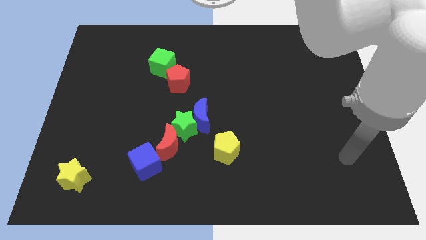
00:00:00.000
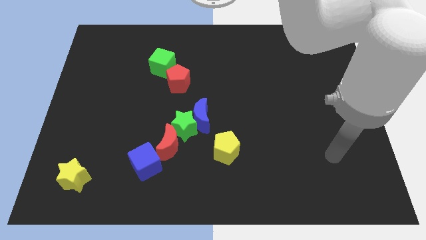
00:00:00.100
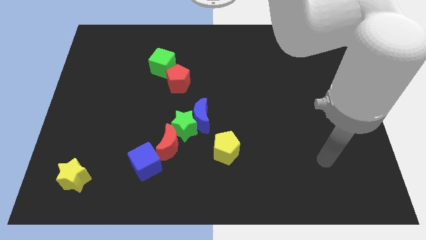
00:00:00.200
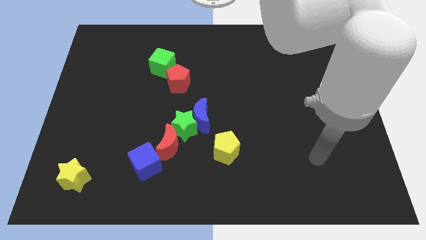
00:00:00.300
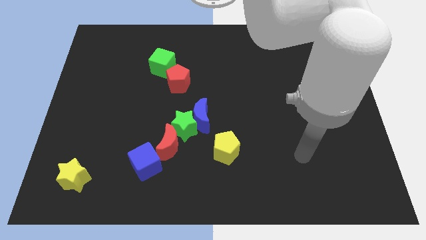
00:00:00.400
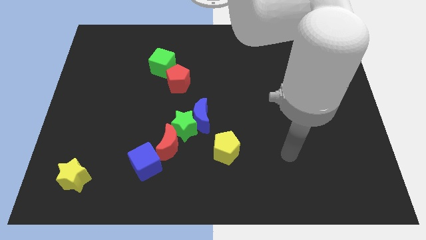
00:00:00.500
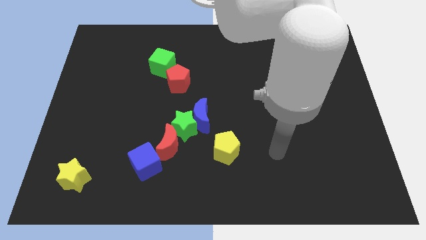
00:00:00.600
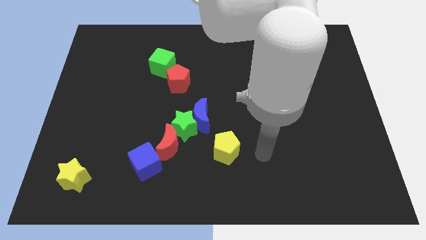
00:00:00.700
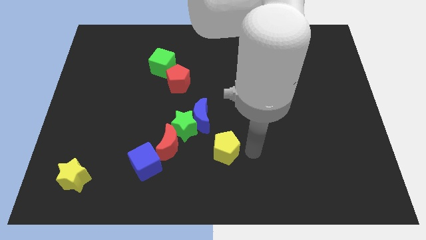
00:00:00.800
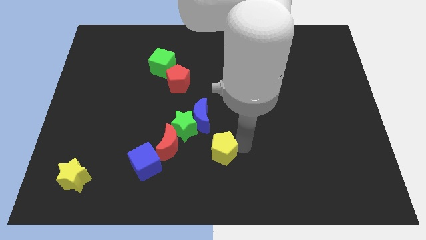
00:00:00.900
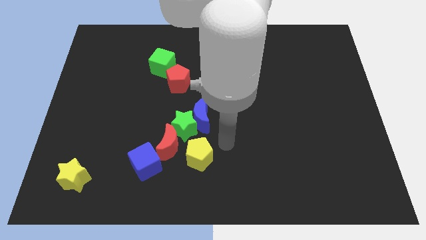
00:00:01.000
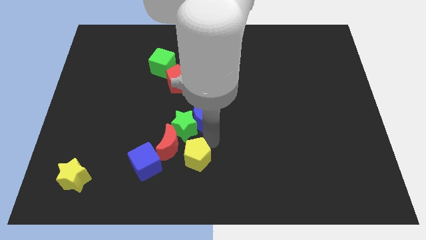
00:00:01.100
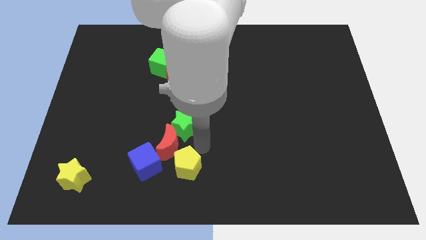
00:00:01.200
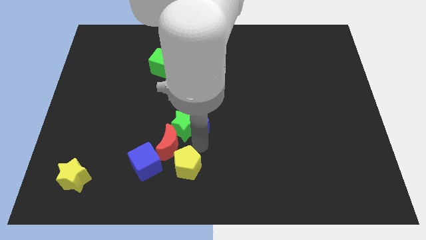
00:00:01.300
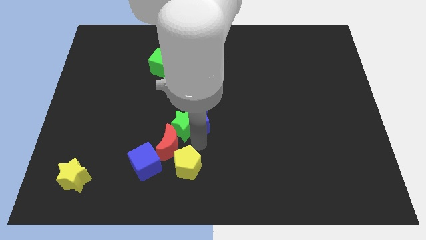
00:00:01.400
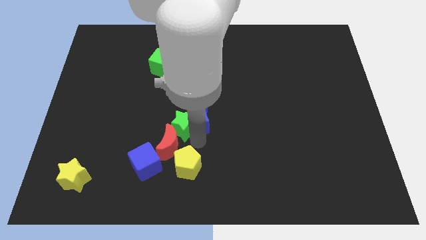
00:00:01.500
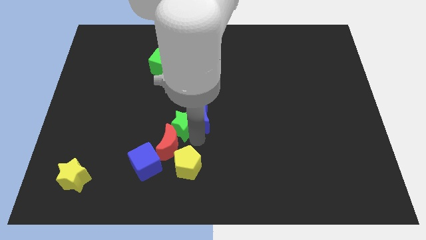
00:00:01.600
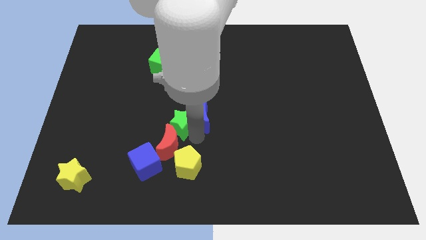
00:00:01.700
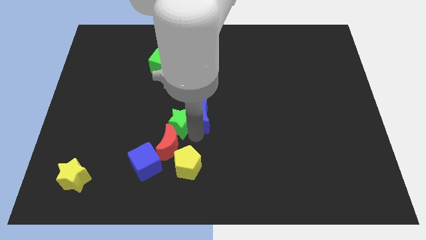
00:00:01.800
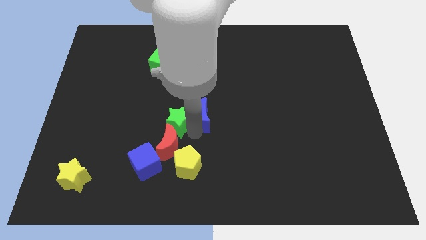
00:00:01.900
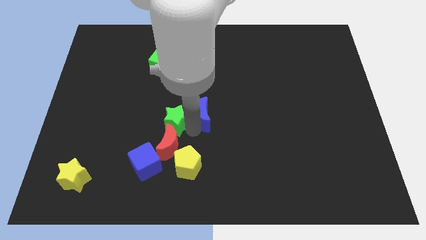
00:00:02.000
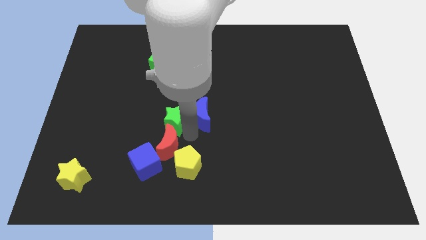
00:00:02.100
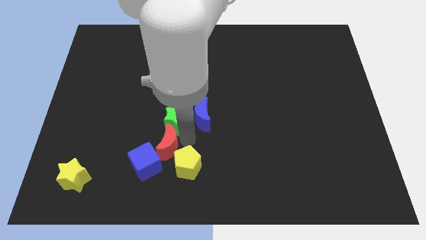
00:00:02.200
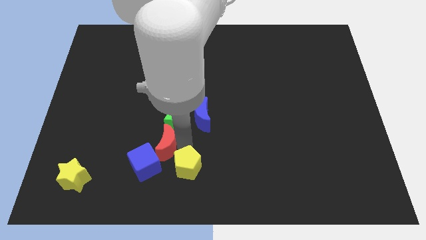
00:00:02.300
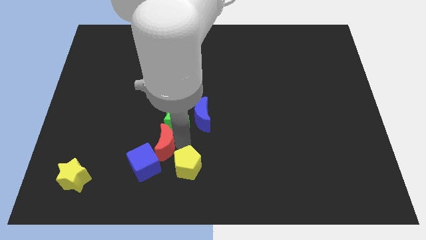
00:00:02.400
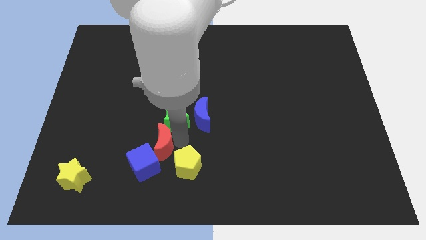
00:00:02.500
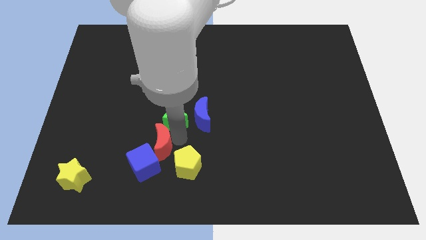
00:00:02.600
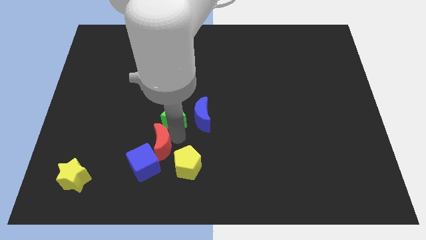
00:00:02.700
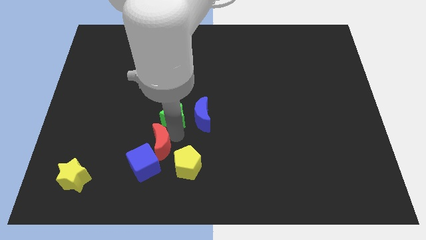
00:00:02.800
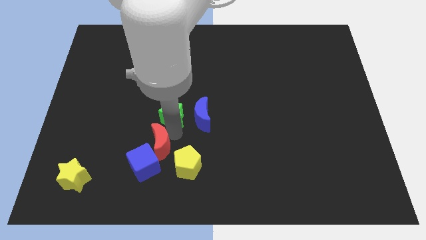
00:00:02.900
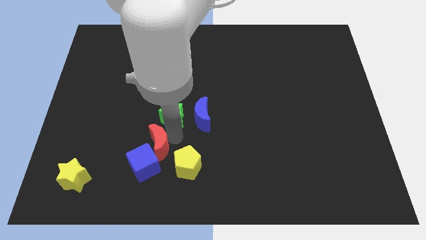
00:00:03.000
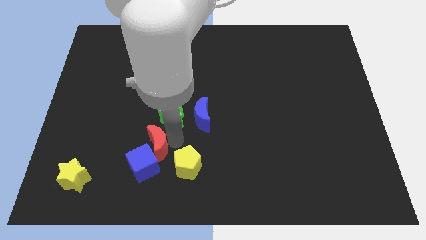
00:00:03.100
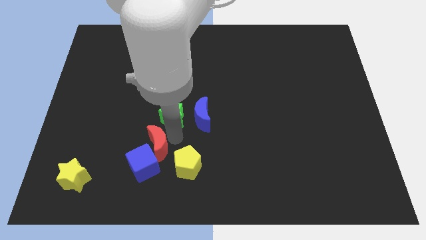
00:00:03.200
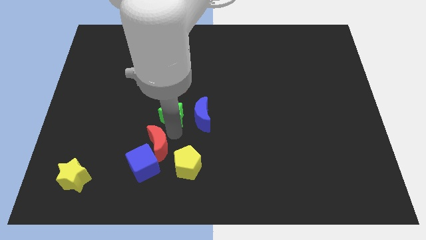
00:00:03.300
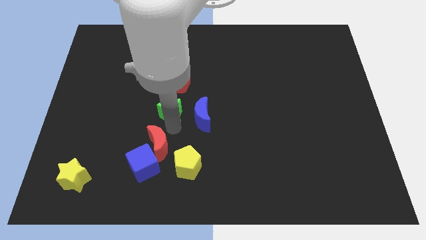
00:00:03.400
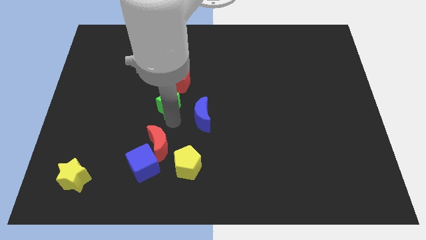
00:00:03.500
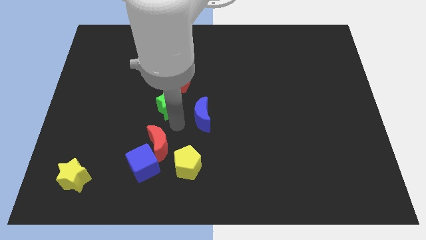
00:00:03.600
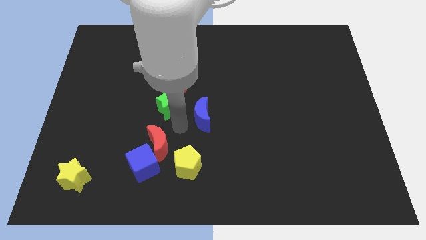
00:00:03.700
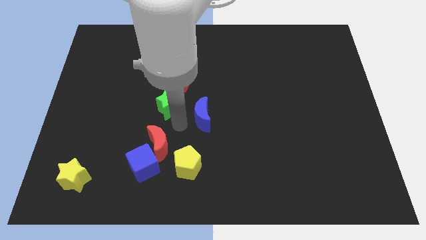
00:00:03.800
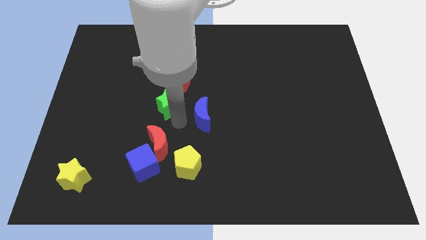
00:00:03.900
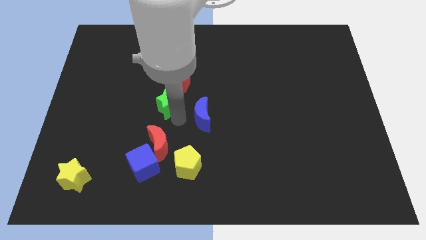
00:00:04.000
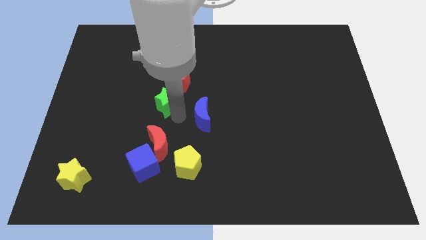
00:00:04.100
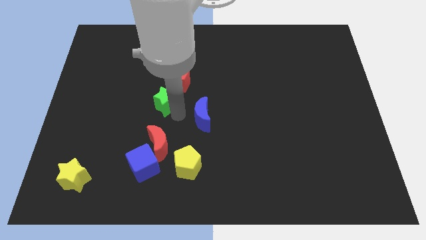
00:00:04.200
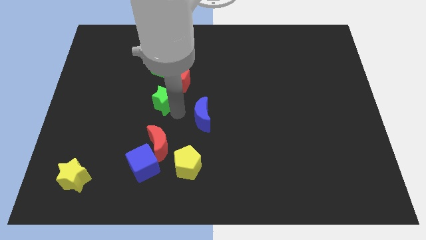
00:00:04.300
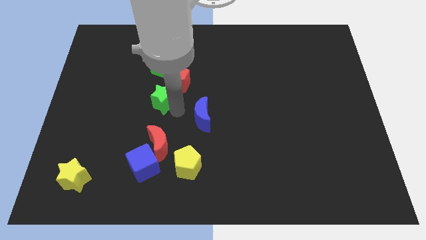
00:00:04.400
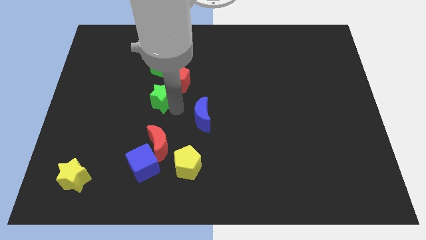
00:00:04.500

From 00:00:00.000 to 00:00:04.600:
move the green star away from the blue moon and red moon

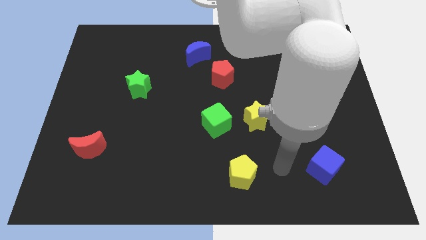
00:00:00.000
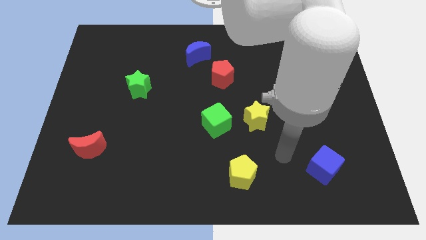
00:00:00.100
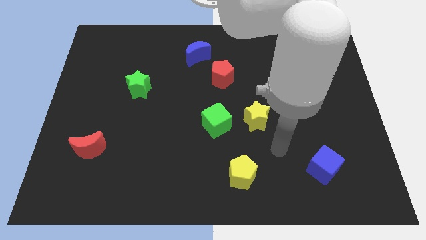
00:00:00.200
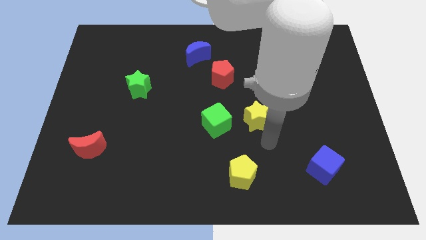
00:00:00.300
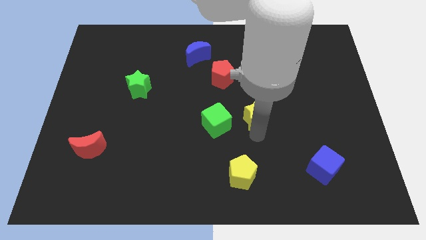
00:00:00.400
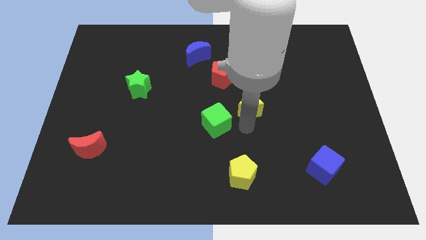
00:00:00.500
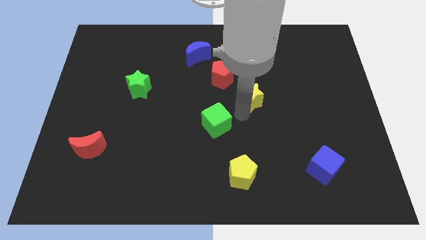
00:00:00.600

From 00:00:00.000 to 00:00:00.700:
separate the green cube from the yellow star

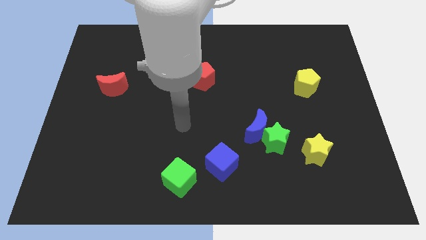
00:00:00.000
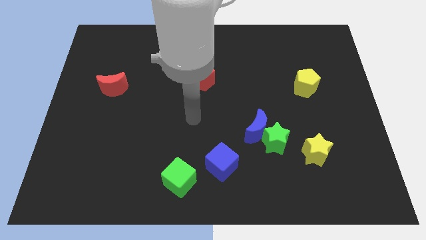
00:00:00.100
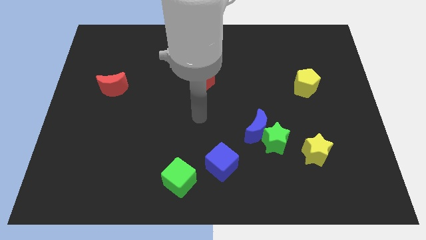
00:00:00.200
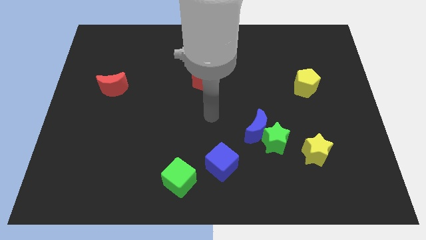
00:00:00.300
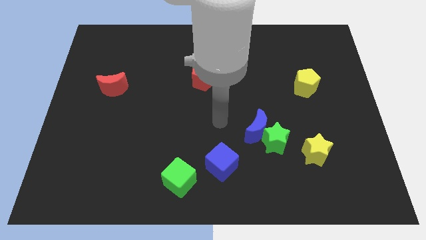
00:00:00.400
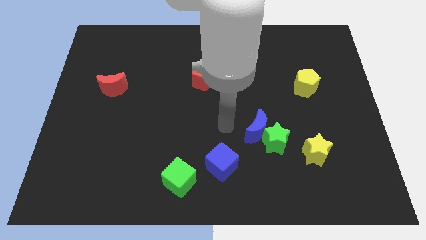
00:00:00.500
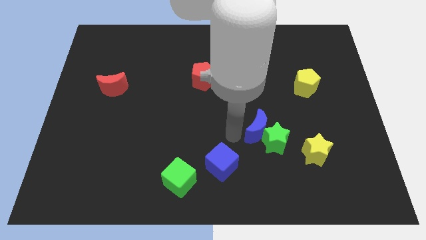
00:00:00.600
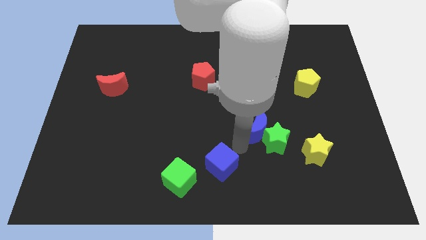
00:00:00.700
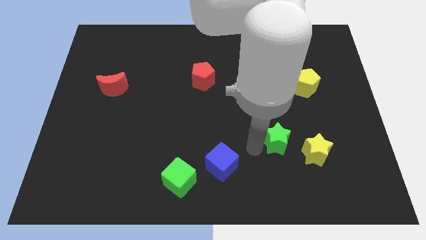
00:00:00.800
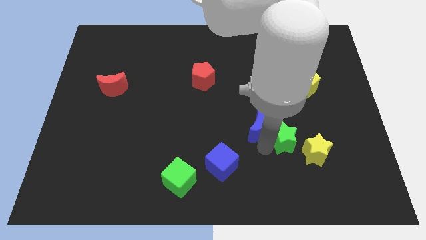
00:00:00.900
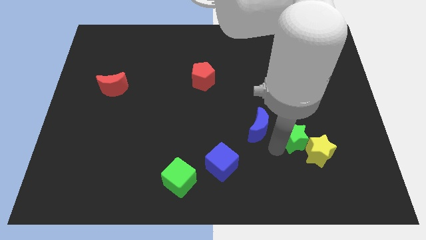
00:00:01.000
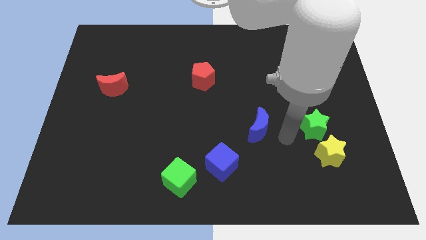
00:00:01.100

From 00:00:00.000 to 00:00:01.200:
separate the blue moon from the green star

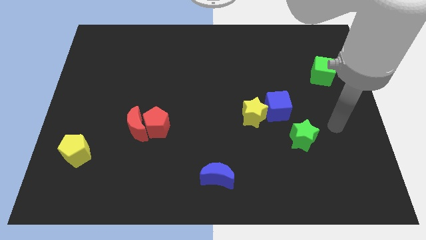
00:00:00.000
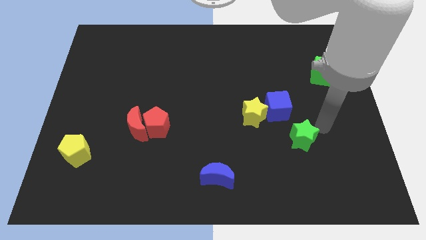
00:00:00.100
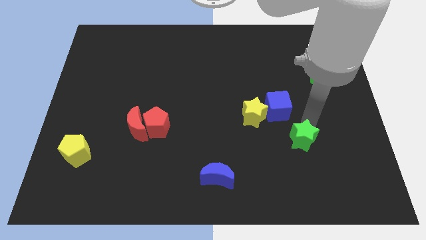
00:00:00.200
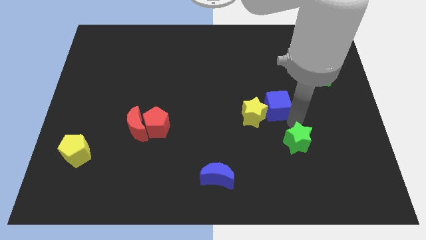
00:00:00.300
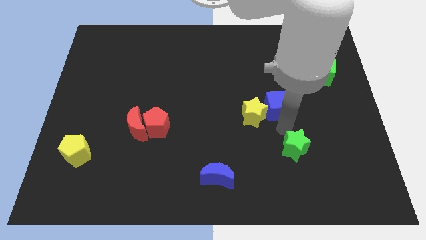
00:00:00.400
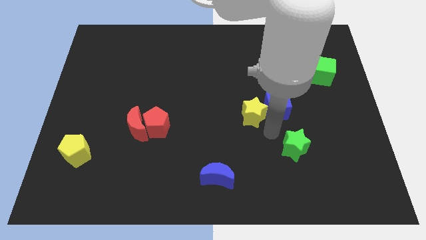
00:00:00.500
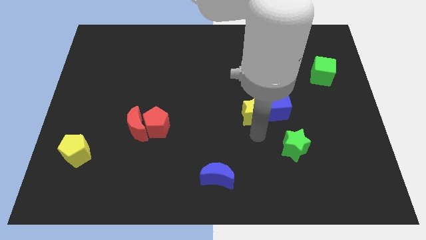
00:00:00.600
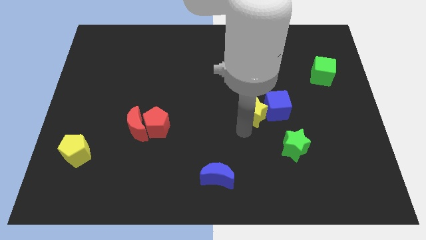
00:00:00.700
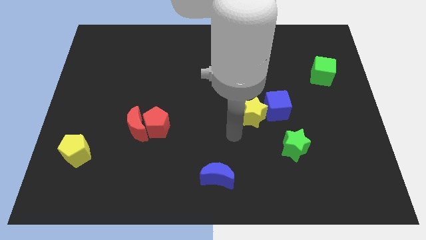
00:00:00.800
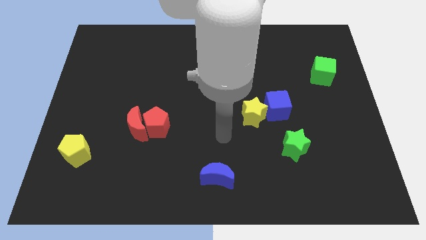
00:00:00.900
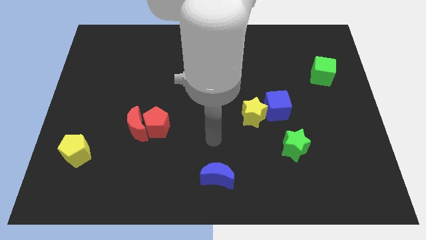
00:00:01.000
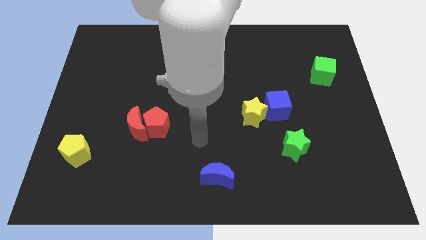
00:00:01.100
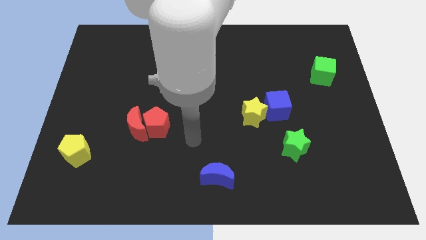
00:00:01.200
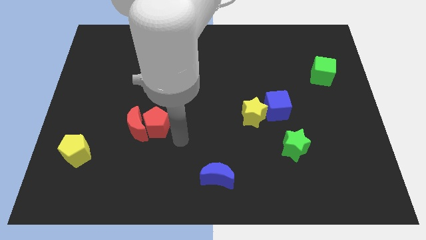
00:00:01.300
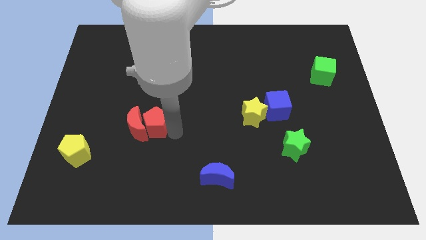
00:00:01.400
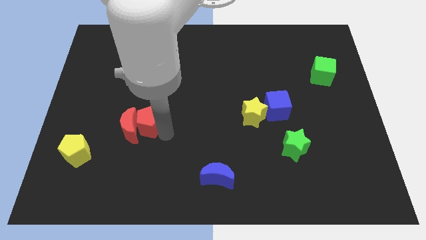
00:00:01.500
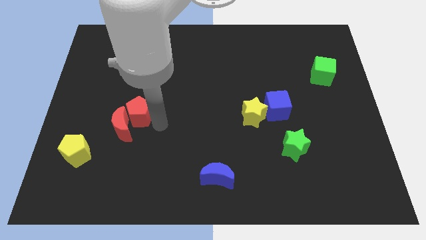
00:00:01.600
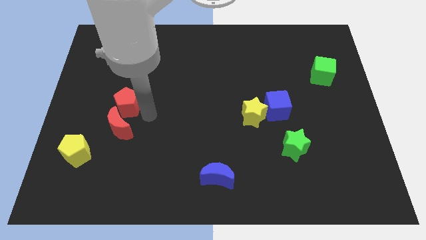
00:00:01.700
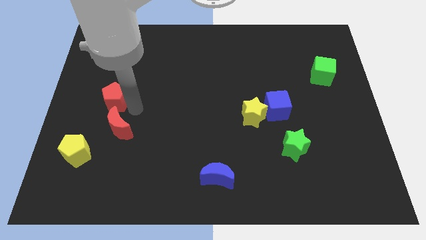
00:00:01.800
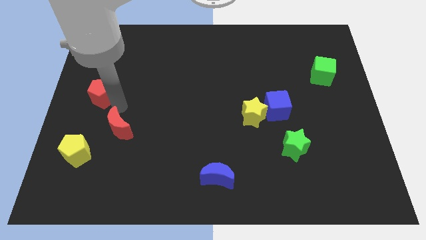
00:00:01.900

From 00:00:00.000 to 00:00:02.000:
pull the red moon apart from the red pentagon

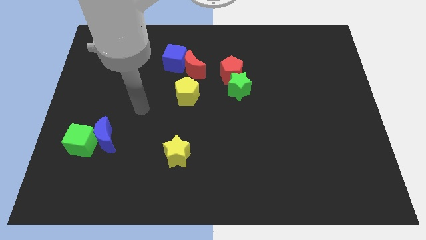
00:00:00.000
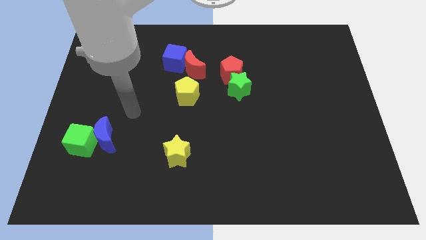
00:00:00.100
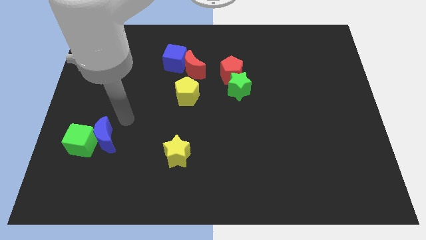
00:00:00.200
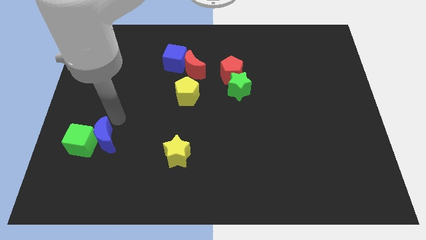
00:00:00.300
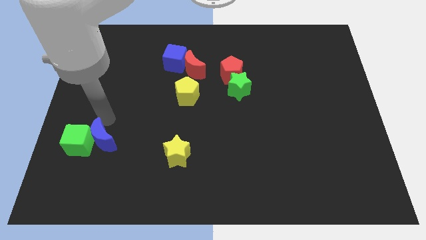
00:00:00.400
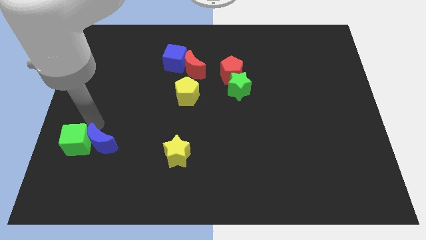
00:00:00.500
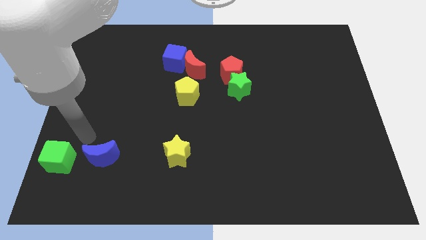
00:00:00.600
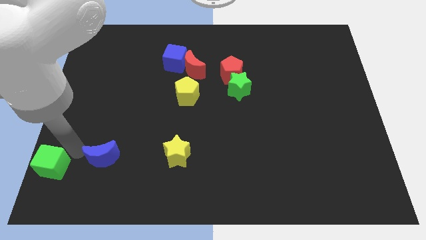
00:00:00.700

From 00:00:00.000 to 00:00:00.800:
move the blue moon away from the green cube

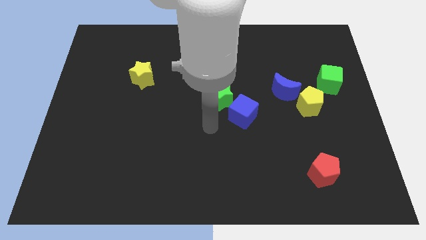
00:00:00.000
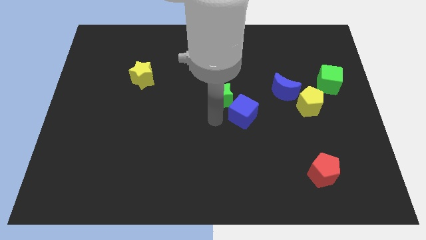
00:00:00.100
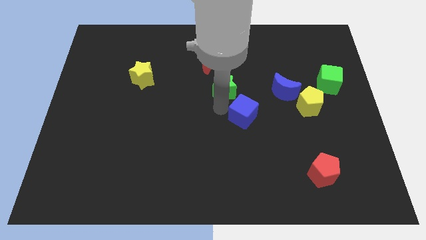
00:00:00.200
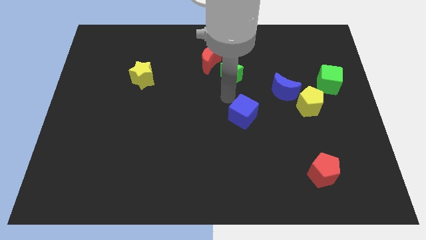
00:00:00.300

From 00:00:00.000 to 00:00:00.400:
pull the blue cube apart from the green star
